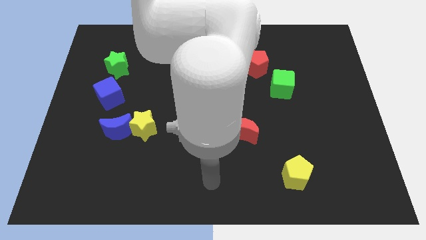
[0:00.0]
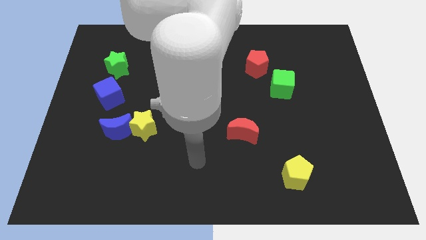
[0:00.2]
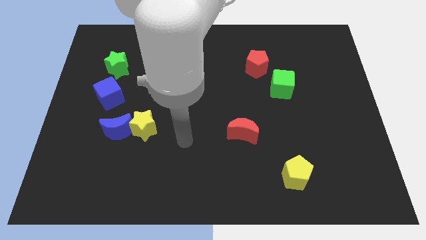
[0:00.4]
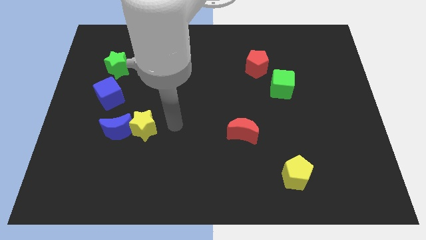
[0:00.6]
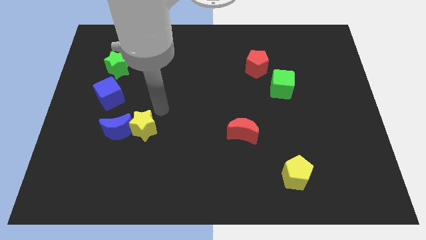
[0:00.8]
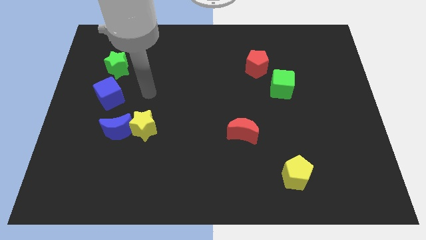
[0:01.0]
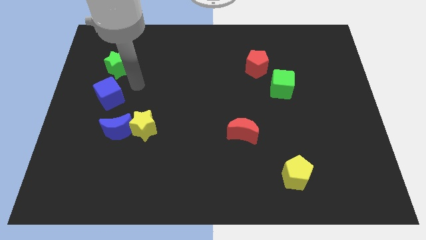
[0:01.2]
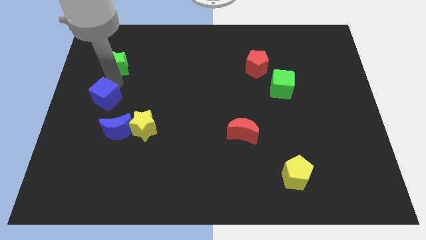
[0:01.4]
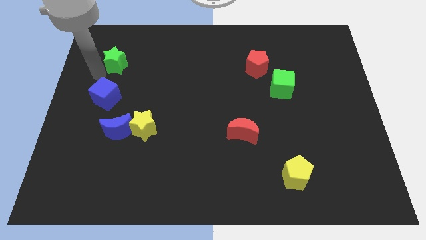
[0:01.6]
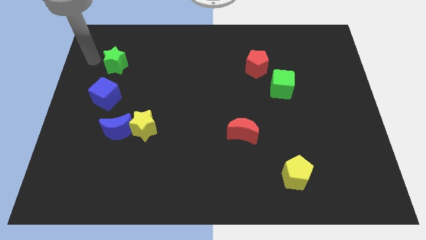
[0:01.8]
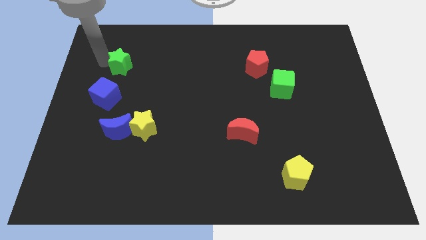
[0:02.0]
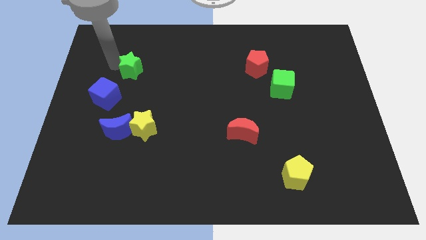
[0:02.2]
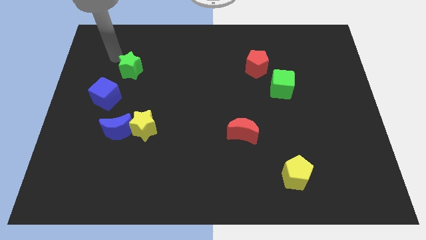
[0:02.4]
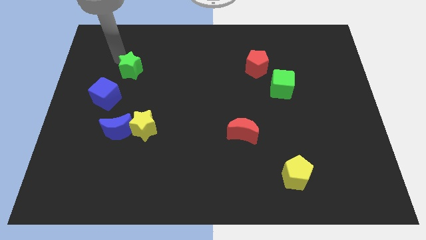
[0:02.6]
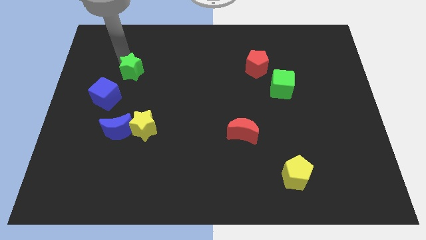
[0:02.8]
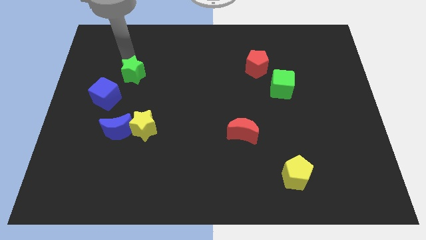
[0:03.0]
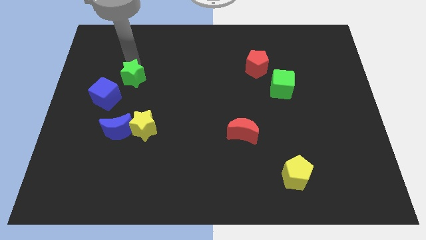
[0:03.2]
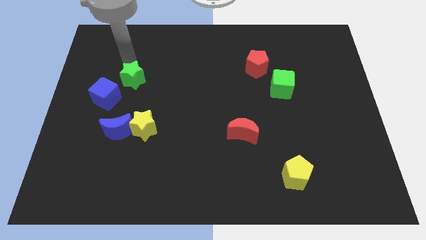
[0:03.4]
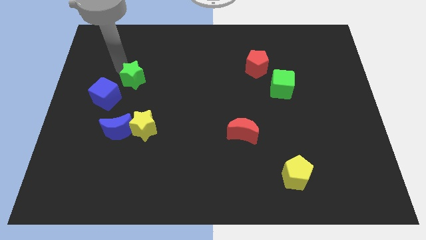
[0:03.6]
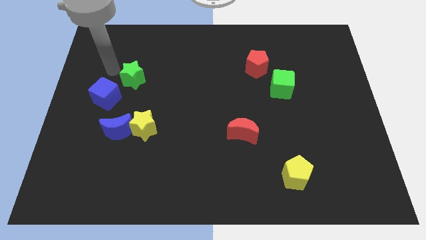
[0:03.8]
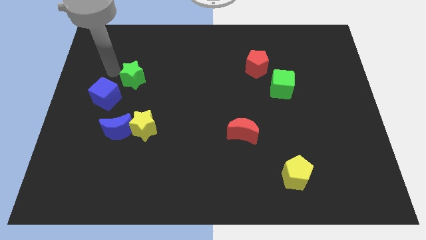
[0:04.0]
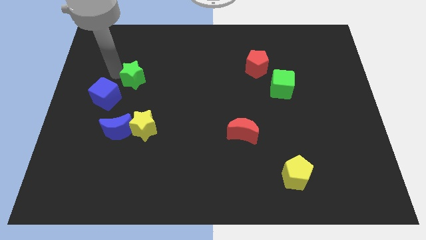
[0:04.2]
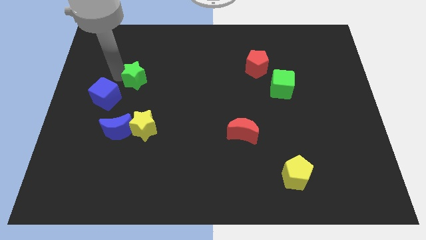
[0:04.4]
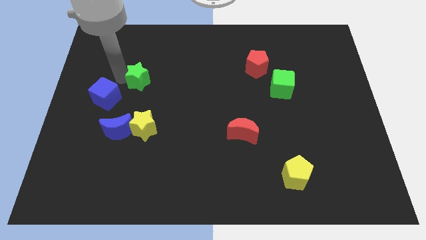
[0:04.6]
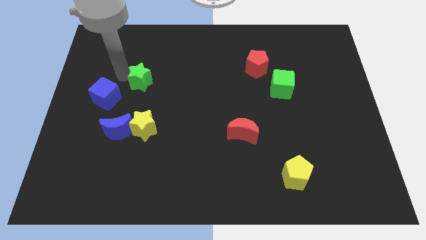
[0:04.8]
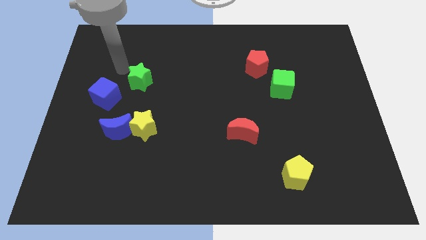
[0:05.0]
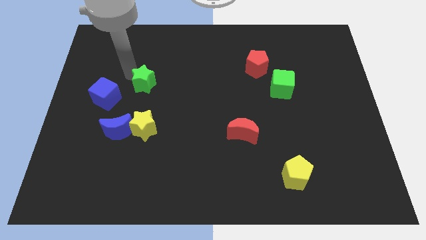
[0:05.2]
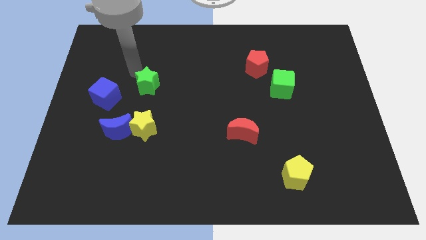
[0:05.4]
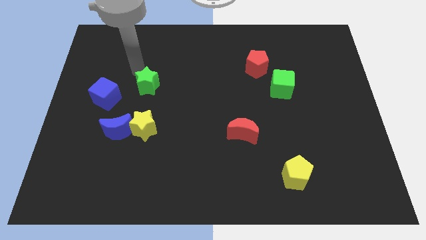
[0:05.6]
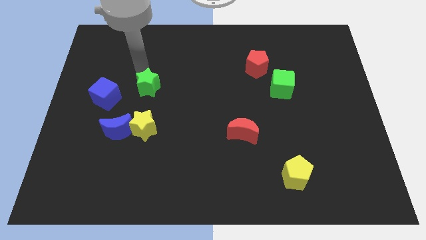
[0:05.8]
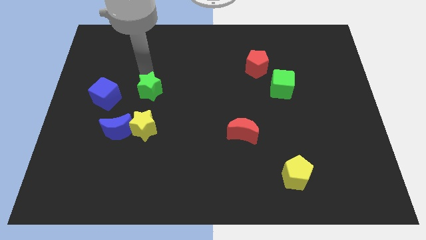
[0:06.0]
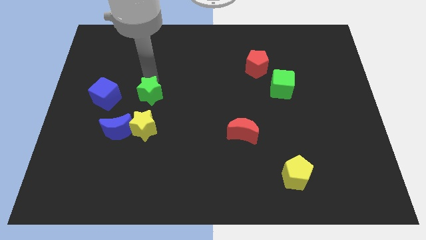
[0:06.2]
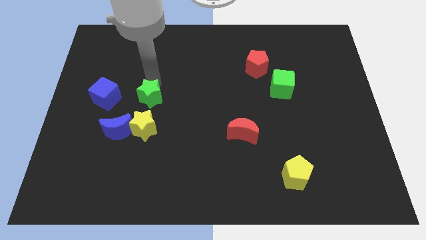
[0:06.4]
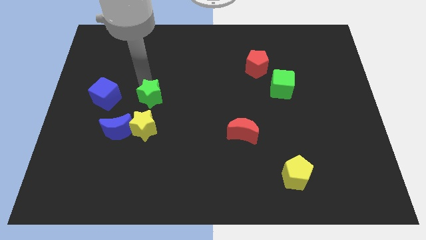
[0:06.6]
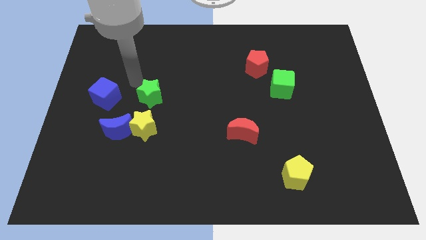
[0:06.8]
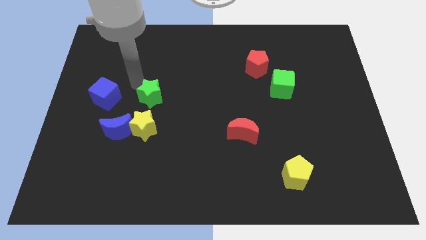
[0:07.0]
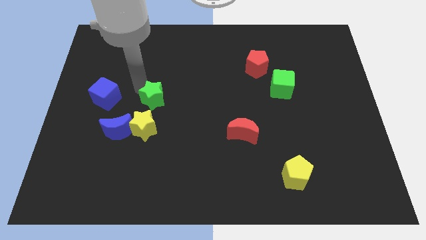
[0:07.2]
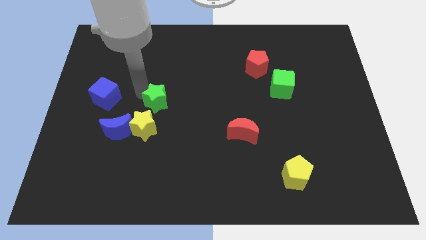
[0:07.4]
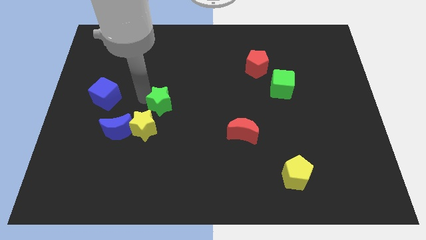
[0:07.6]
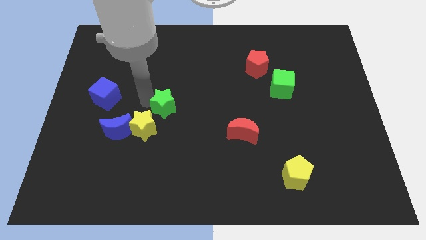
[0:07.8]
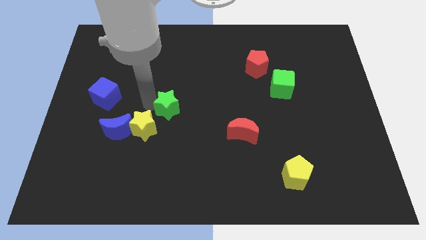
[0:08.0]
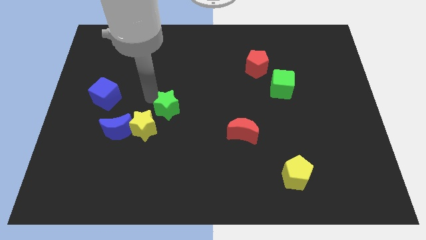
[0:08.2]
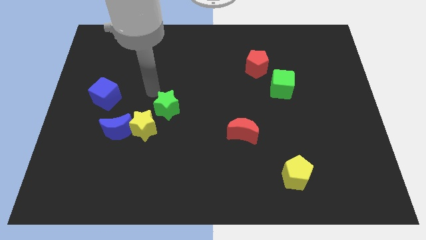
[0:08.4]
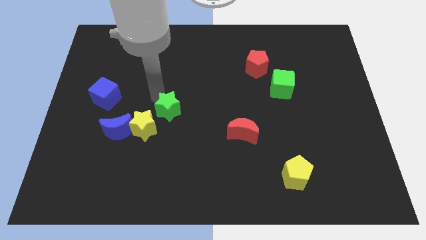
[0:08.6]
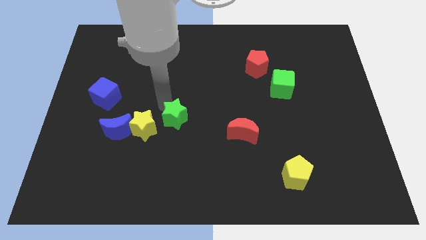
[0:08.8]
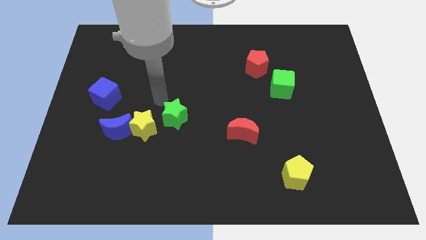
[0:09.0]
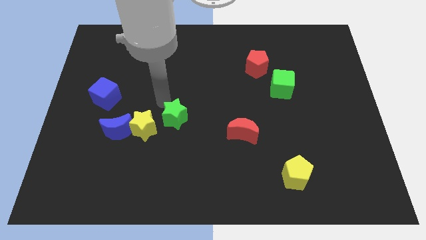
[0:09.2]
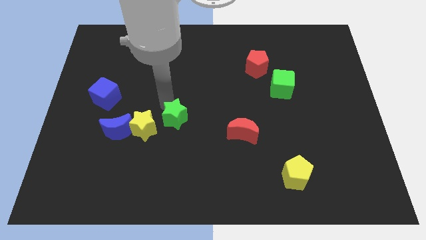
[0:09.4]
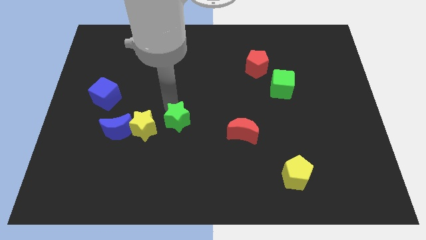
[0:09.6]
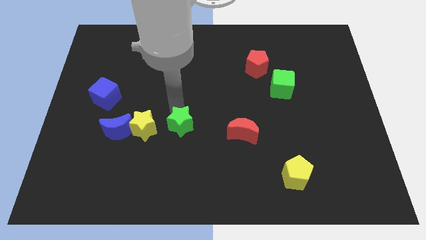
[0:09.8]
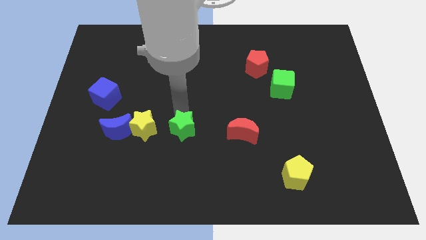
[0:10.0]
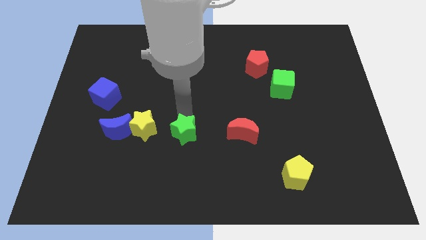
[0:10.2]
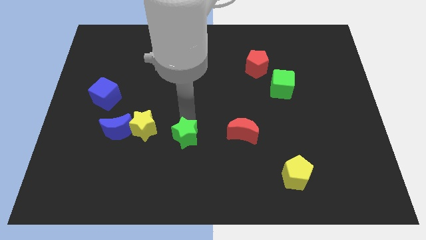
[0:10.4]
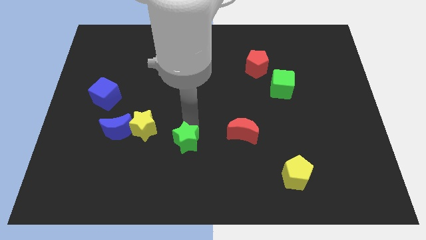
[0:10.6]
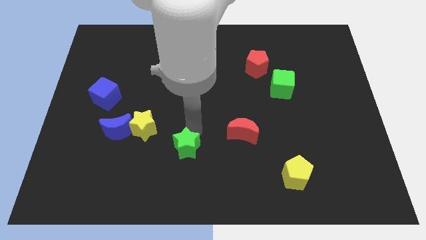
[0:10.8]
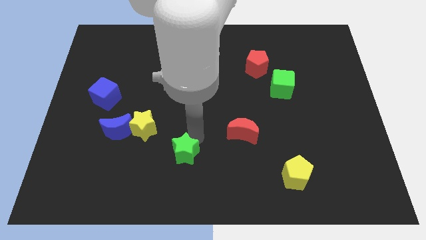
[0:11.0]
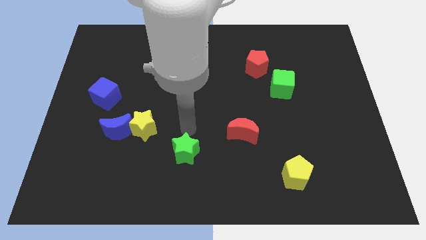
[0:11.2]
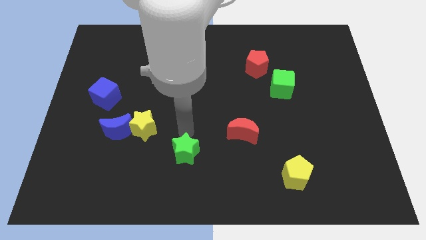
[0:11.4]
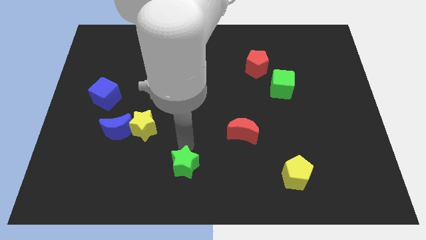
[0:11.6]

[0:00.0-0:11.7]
slide the green star to the bottom

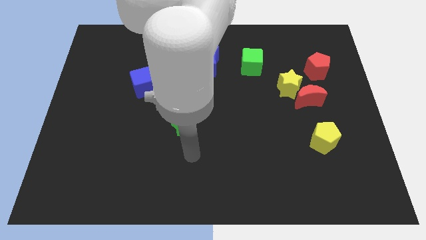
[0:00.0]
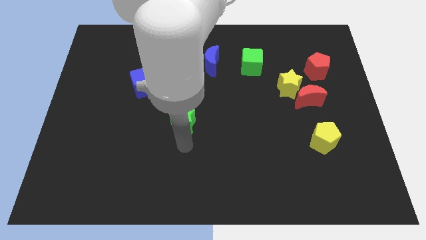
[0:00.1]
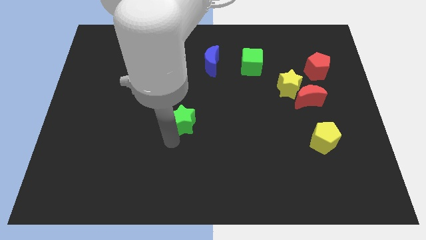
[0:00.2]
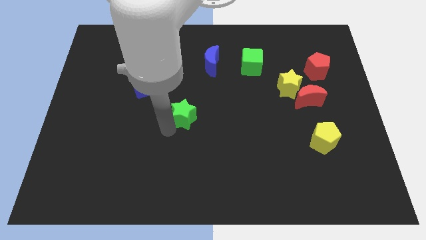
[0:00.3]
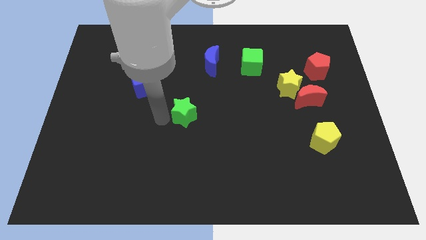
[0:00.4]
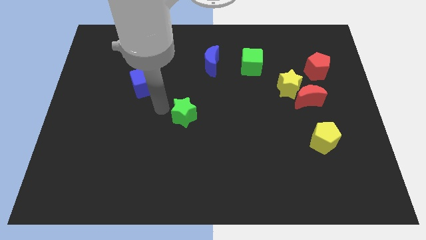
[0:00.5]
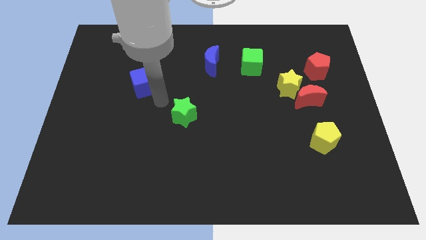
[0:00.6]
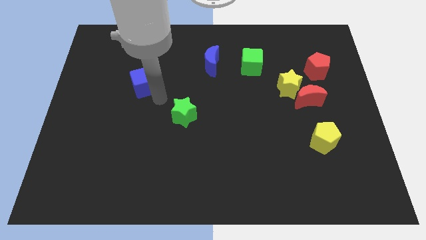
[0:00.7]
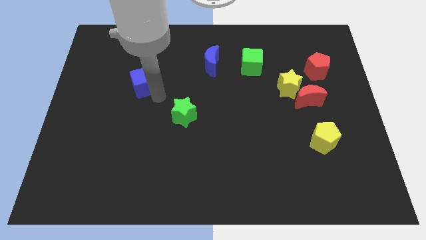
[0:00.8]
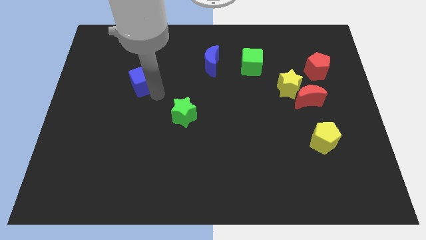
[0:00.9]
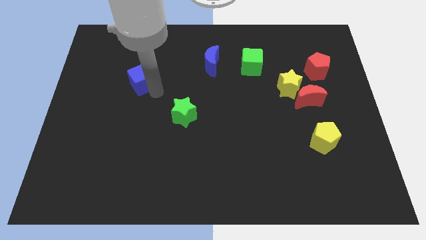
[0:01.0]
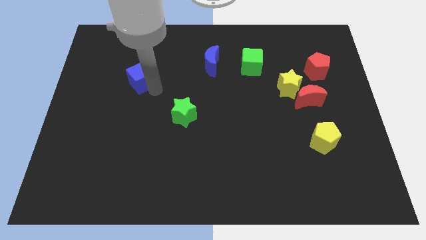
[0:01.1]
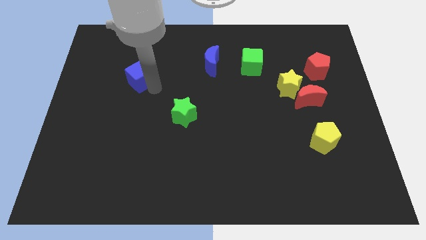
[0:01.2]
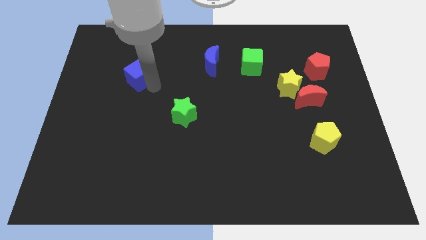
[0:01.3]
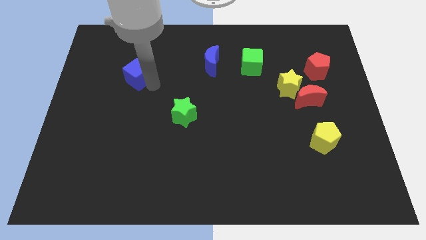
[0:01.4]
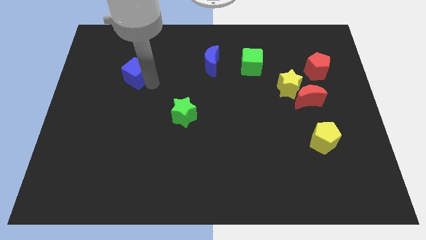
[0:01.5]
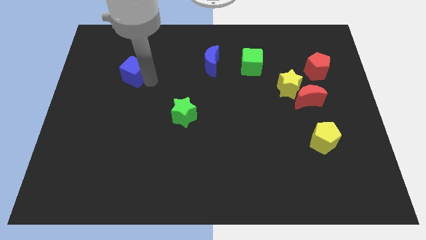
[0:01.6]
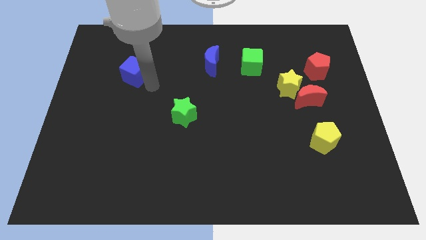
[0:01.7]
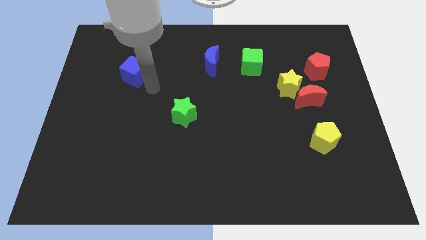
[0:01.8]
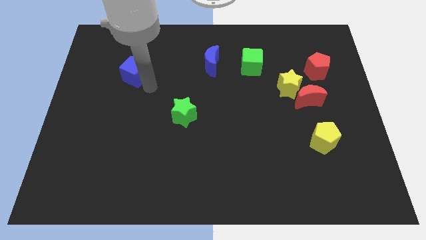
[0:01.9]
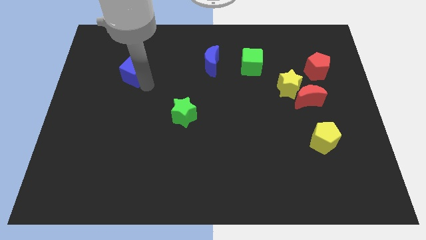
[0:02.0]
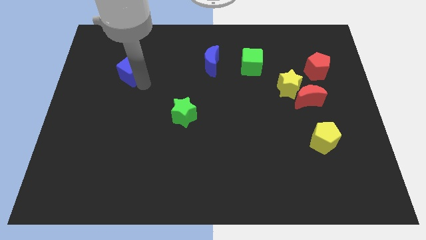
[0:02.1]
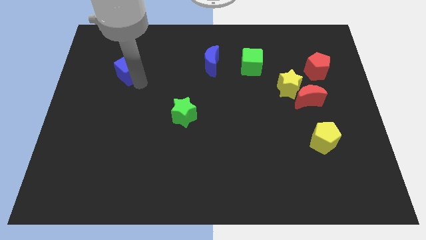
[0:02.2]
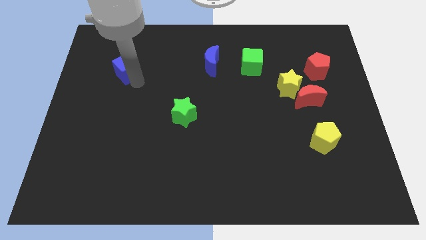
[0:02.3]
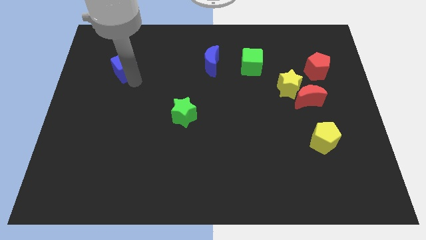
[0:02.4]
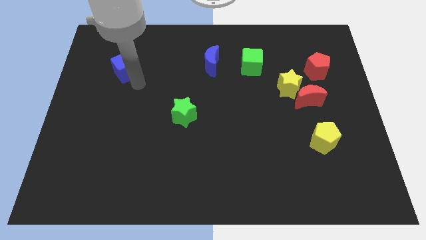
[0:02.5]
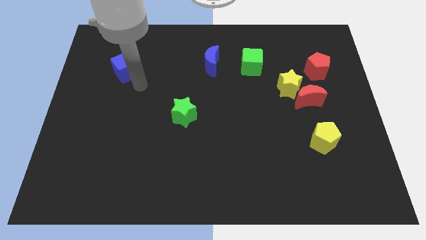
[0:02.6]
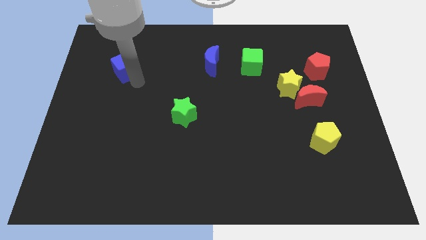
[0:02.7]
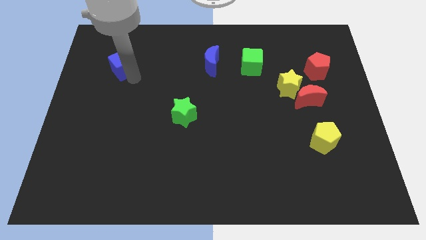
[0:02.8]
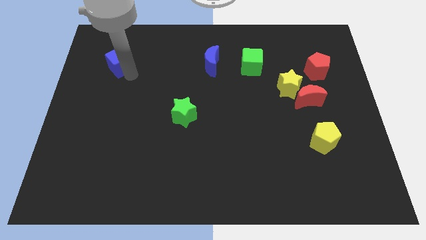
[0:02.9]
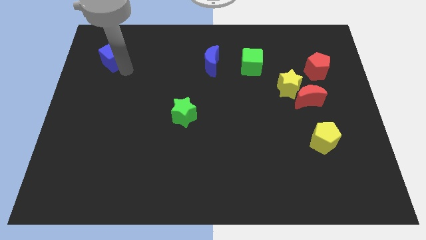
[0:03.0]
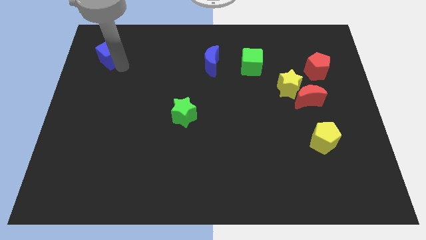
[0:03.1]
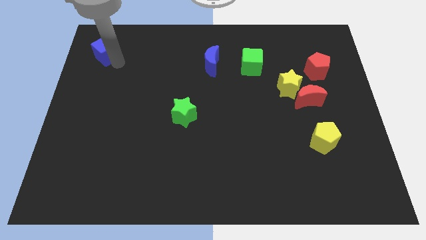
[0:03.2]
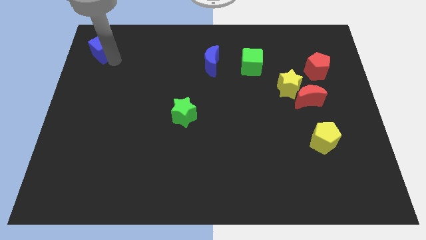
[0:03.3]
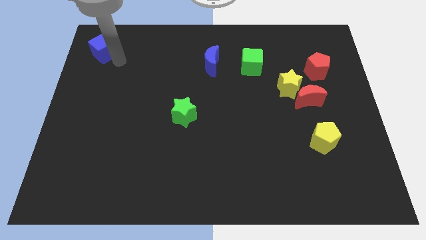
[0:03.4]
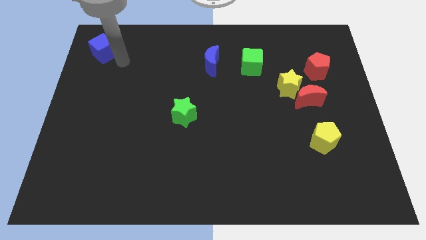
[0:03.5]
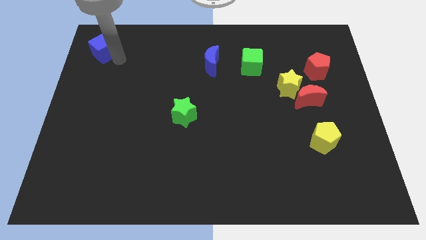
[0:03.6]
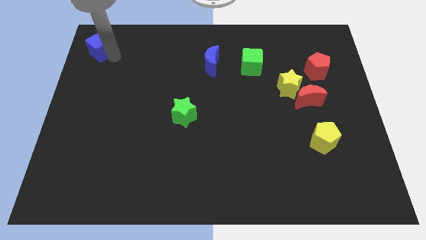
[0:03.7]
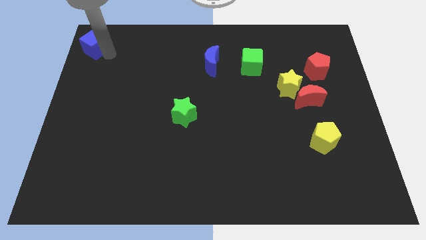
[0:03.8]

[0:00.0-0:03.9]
put the blue cube to the top left of the board
